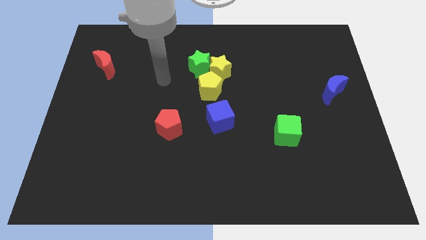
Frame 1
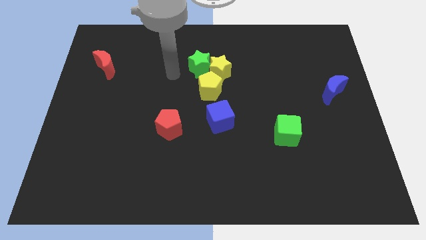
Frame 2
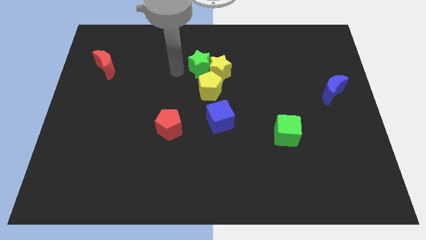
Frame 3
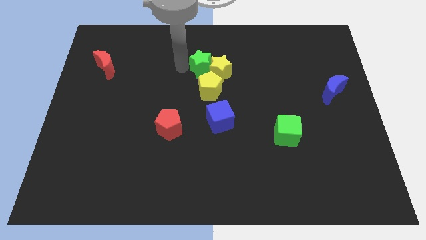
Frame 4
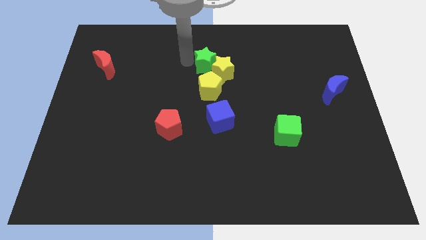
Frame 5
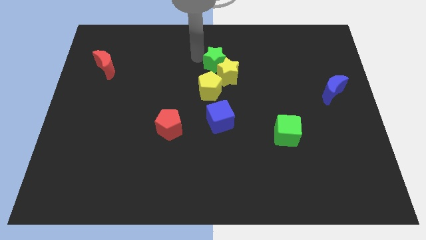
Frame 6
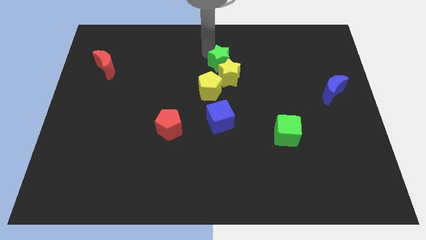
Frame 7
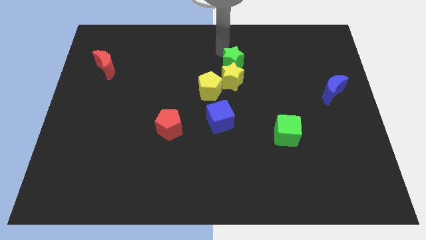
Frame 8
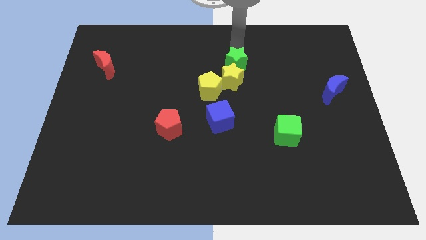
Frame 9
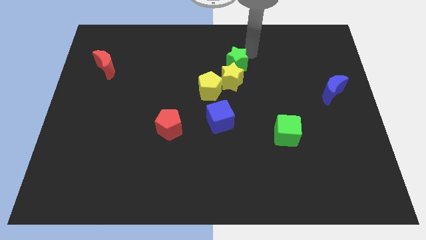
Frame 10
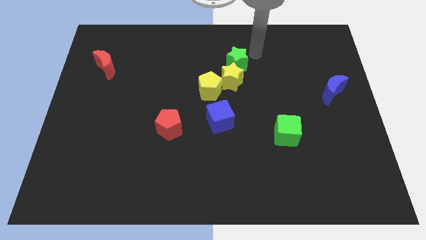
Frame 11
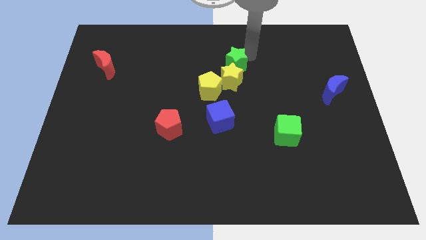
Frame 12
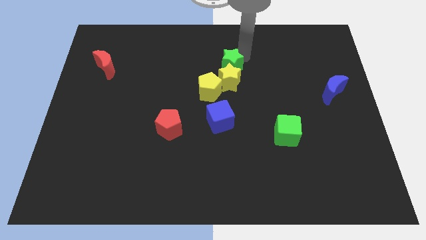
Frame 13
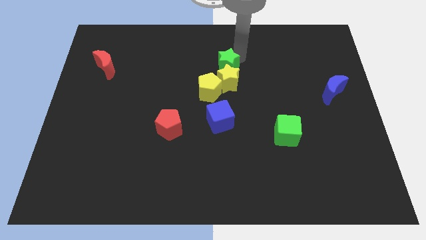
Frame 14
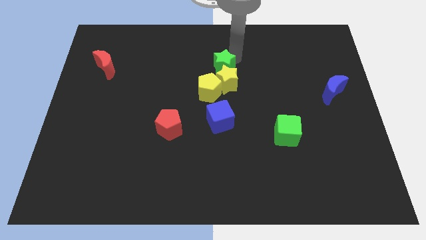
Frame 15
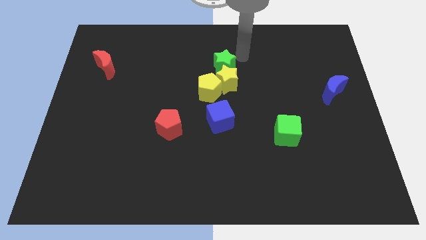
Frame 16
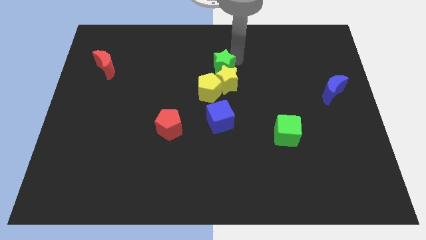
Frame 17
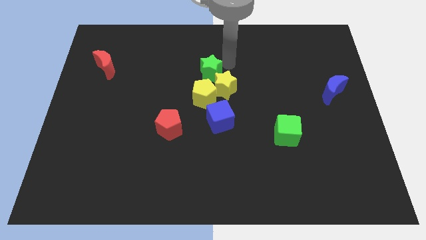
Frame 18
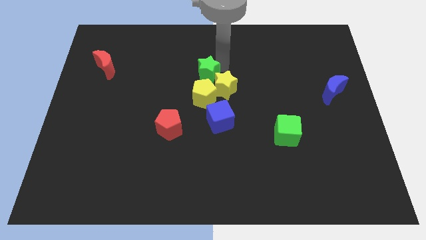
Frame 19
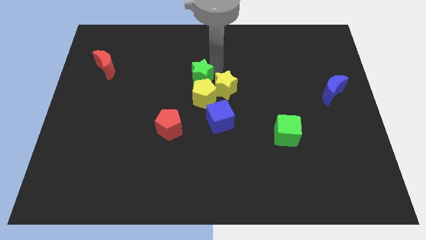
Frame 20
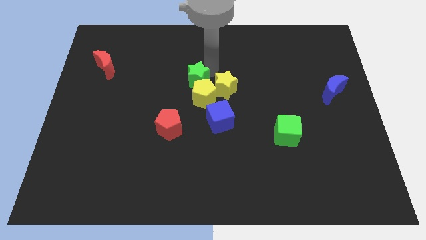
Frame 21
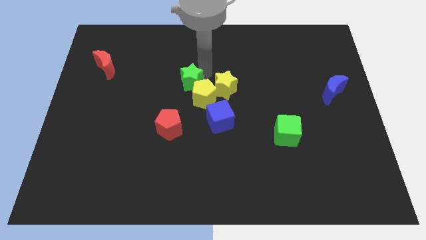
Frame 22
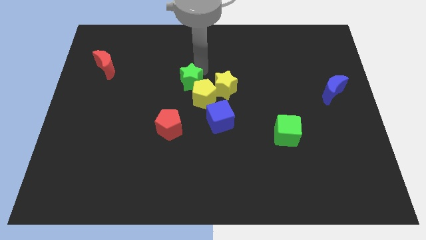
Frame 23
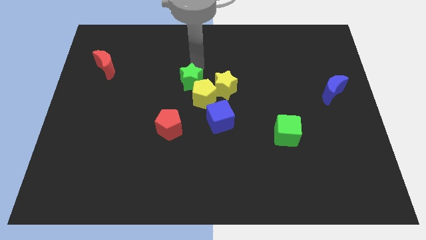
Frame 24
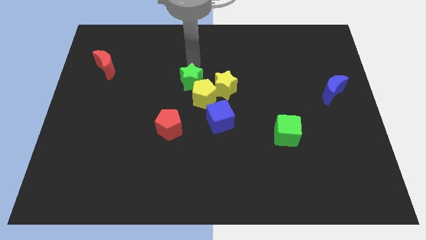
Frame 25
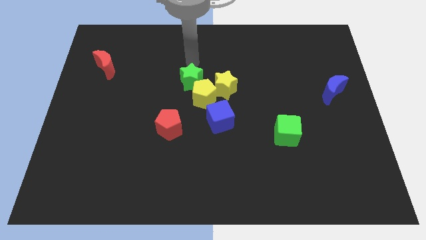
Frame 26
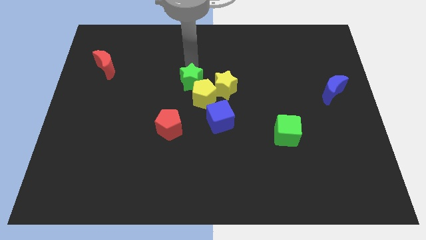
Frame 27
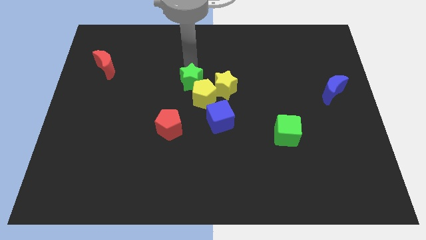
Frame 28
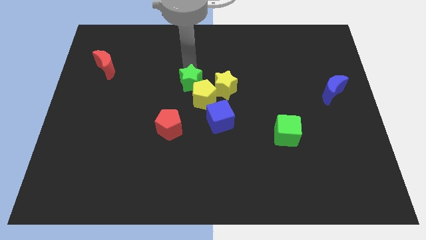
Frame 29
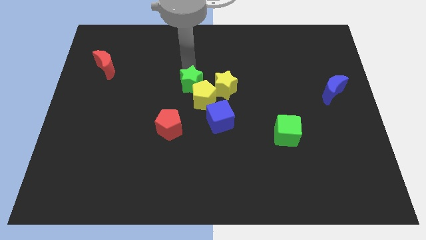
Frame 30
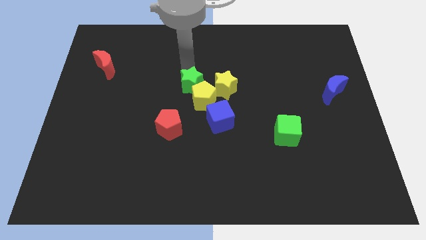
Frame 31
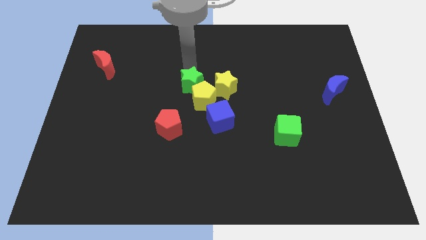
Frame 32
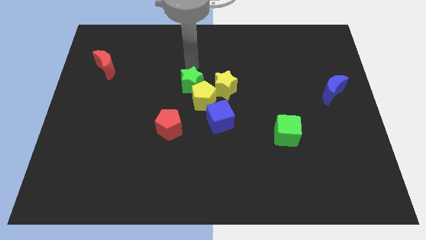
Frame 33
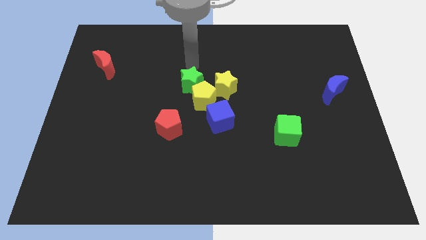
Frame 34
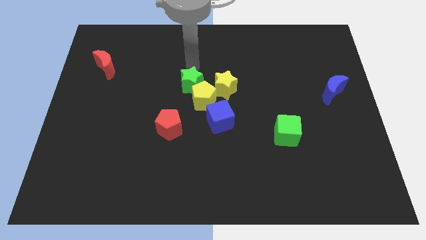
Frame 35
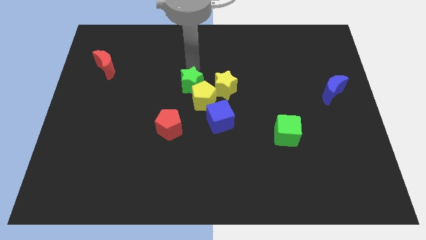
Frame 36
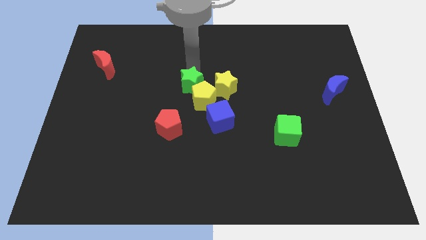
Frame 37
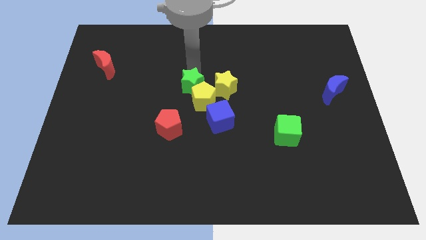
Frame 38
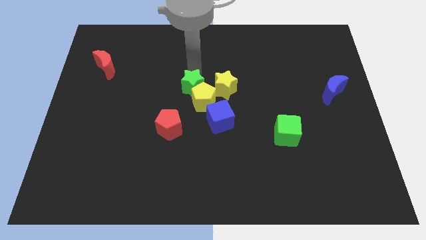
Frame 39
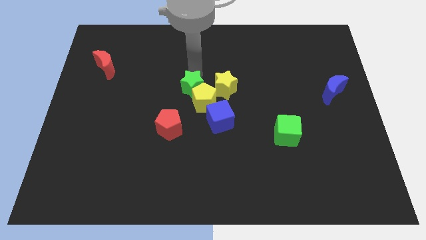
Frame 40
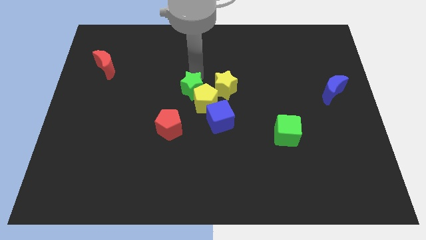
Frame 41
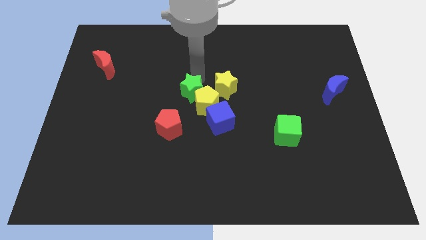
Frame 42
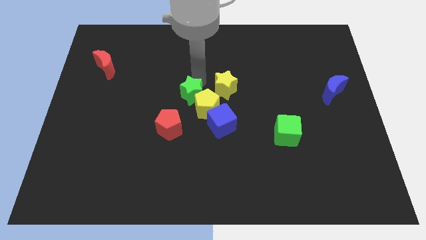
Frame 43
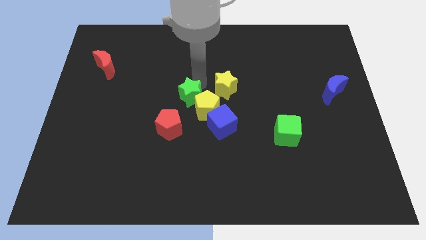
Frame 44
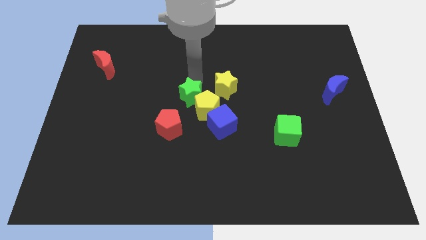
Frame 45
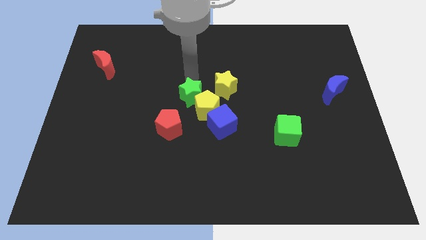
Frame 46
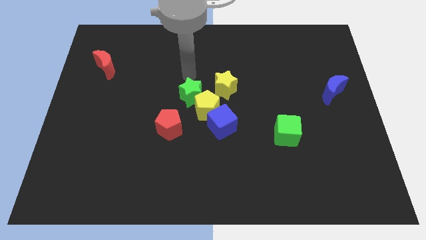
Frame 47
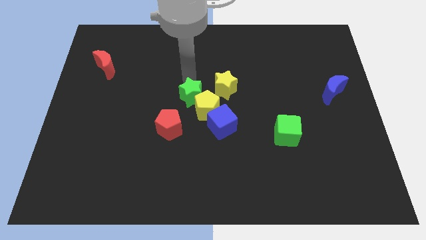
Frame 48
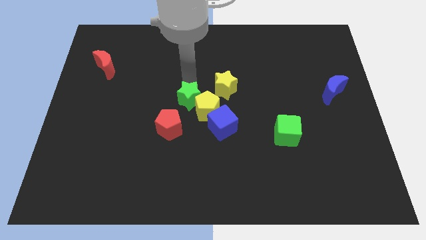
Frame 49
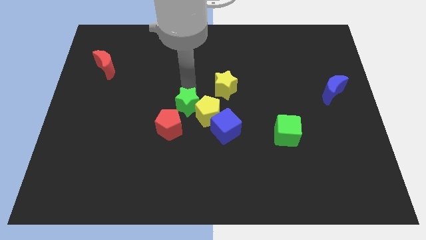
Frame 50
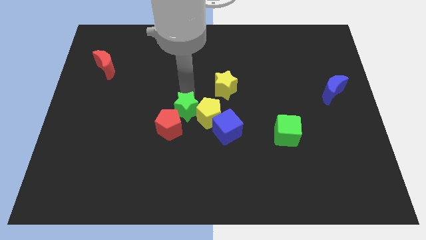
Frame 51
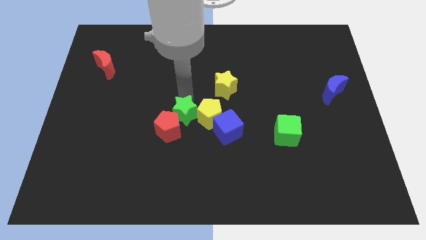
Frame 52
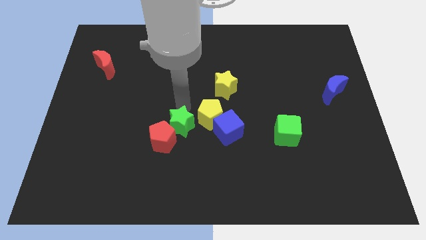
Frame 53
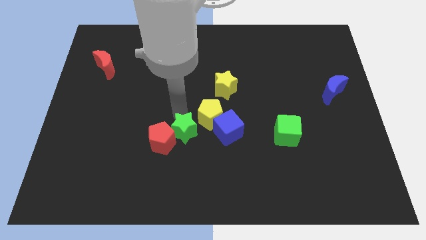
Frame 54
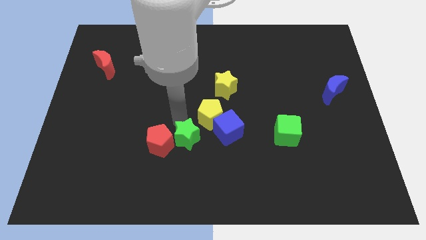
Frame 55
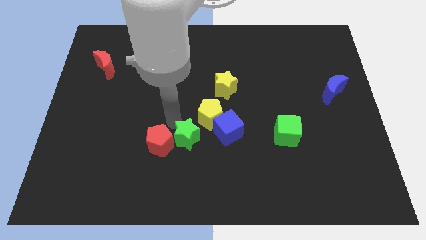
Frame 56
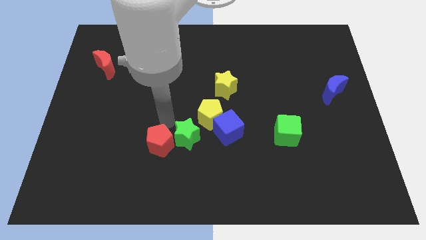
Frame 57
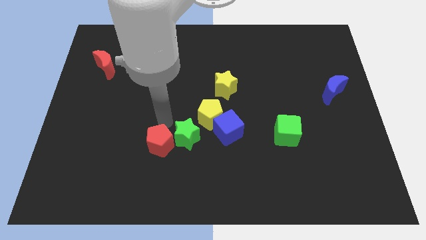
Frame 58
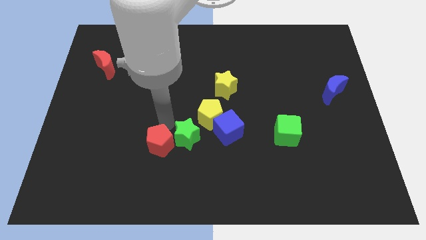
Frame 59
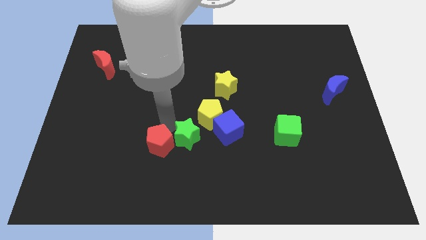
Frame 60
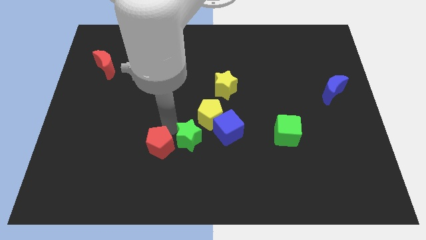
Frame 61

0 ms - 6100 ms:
push the green star to the bottom left of the blue cube

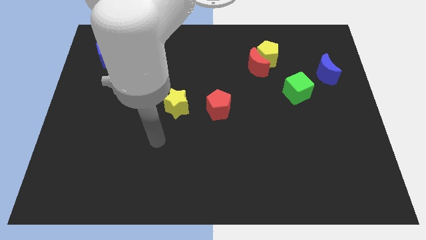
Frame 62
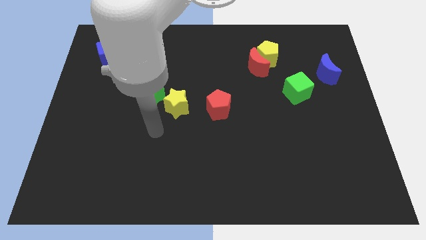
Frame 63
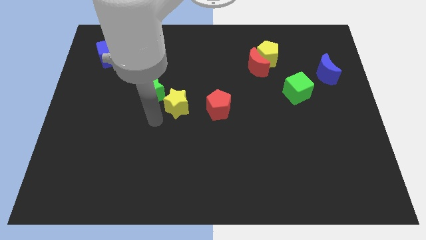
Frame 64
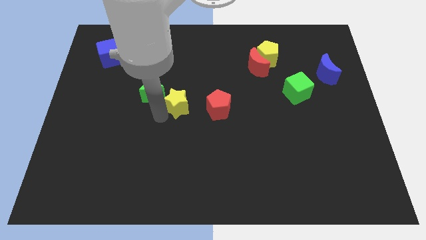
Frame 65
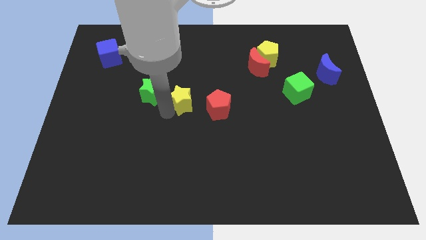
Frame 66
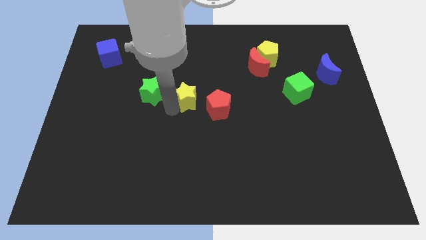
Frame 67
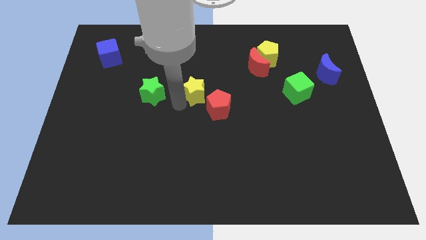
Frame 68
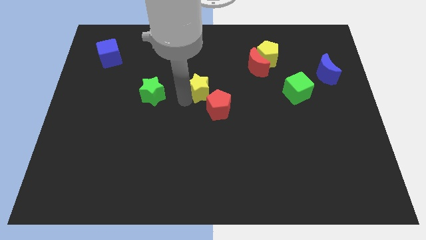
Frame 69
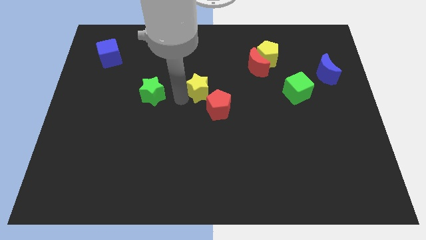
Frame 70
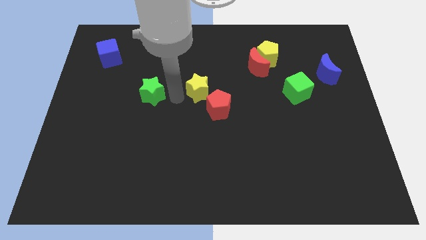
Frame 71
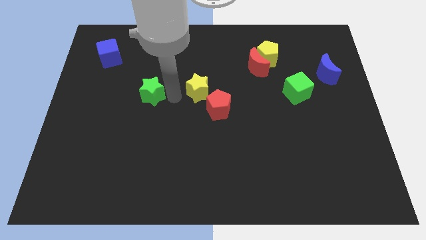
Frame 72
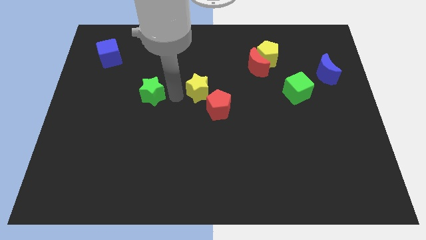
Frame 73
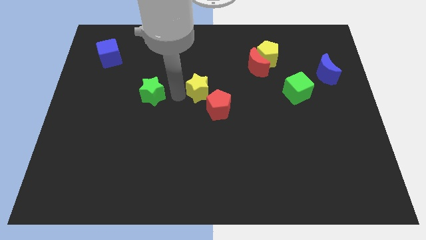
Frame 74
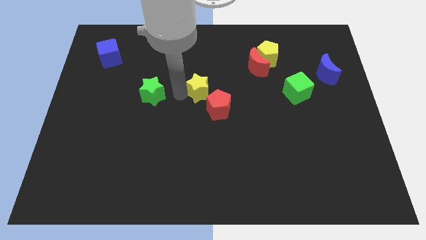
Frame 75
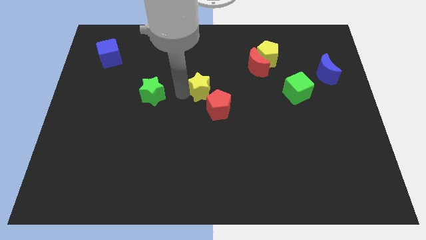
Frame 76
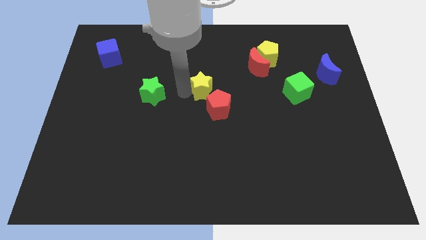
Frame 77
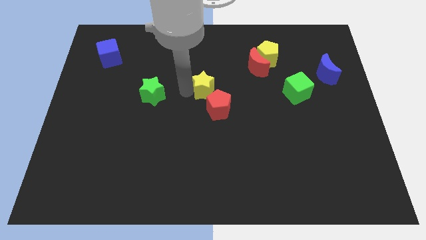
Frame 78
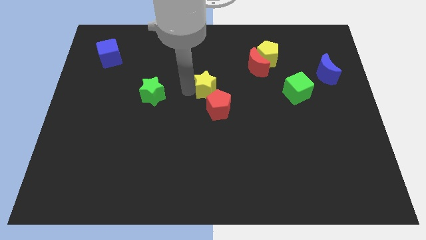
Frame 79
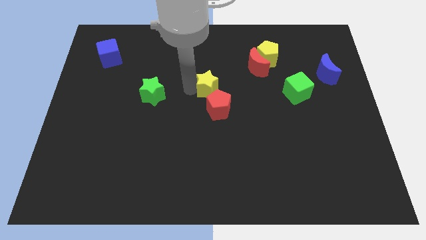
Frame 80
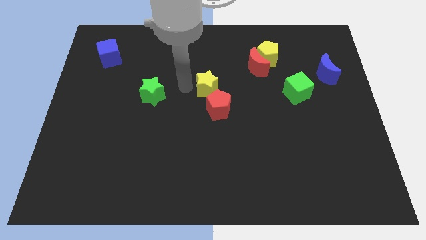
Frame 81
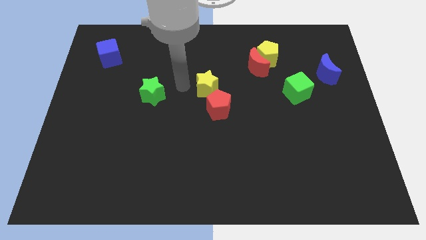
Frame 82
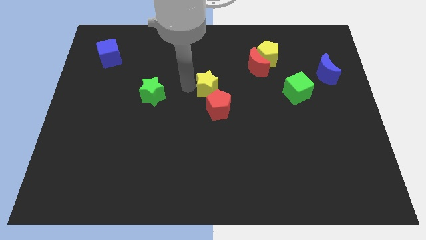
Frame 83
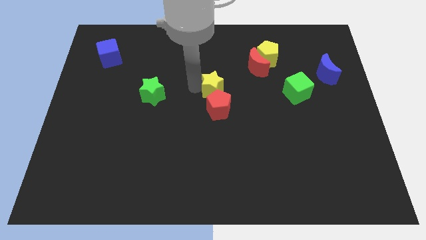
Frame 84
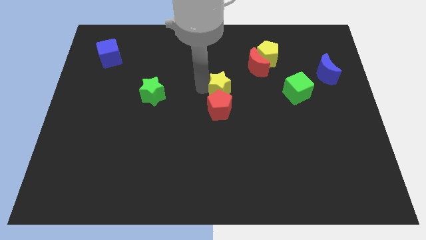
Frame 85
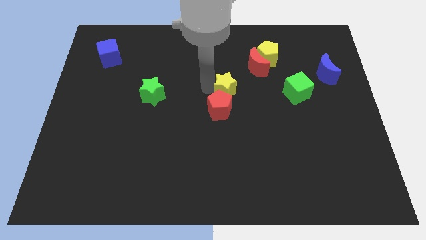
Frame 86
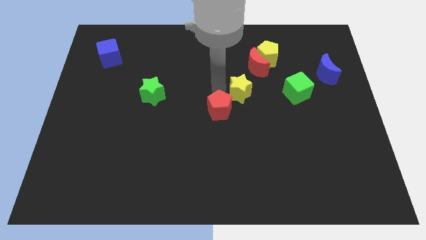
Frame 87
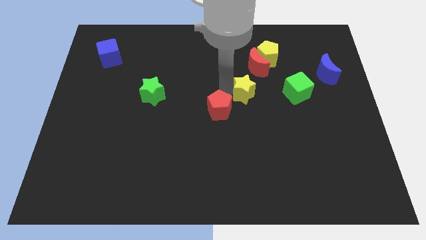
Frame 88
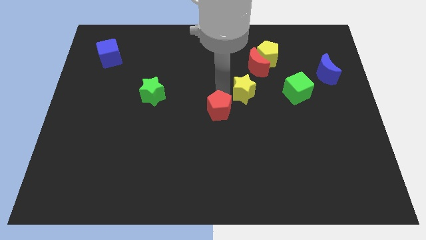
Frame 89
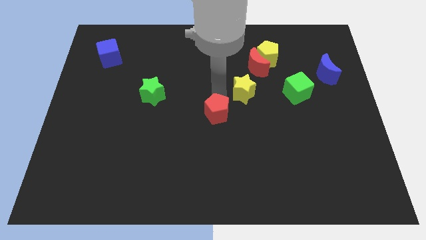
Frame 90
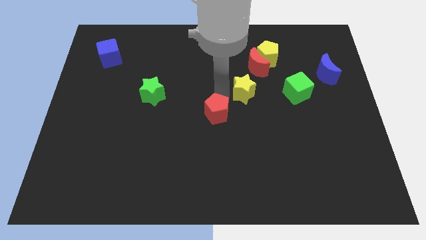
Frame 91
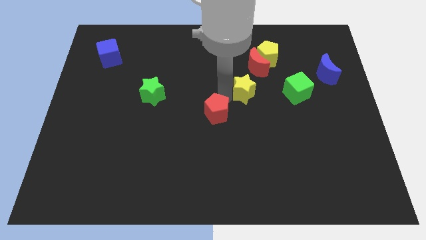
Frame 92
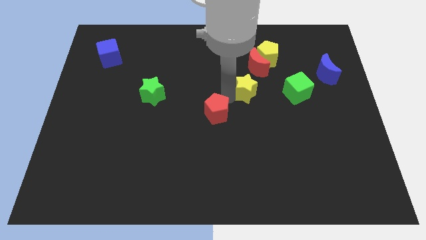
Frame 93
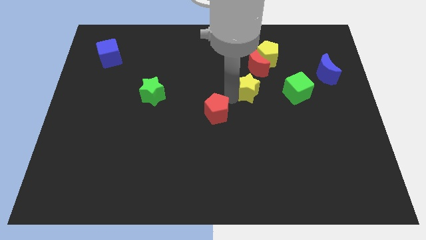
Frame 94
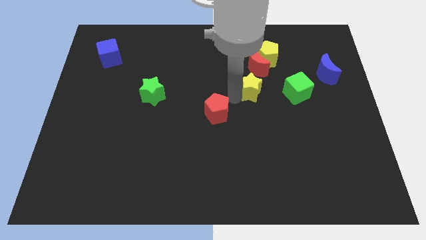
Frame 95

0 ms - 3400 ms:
put the yellow star below the yellow pentagon
